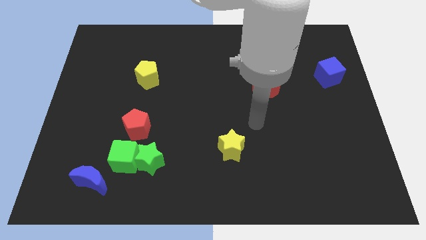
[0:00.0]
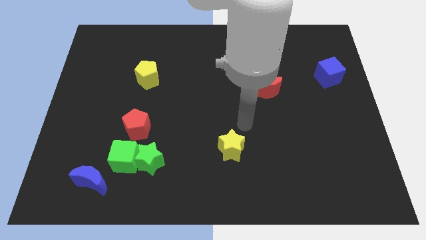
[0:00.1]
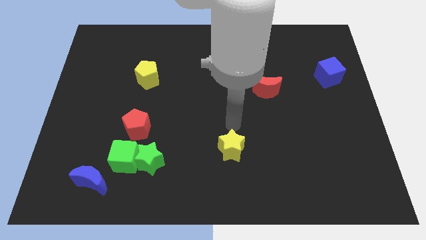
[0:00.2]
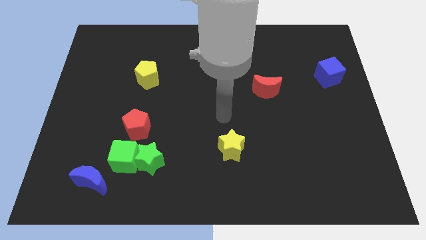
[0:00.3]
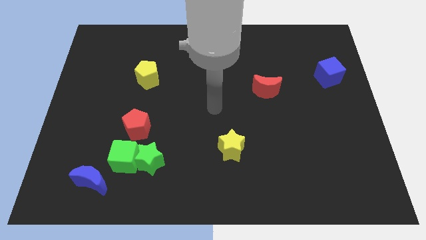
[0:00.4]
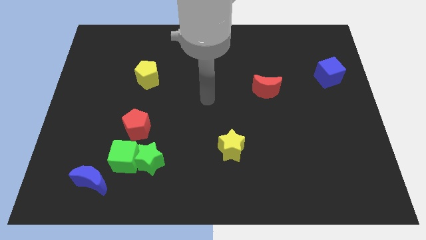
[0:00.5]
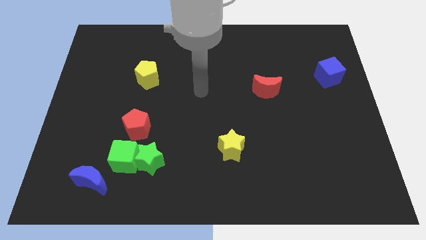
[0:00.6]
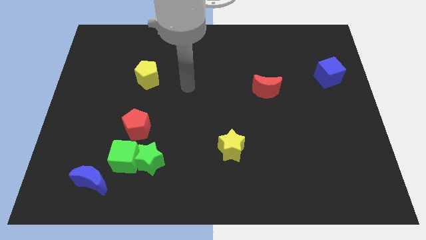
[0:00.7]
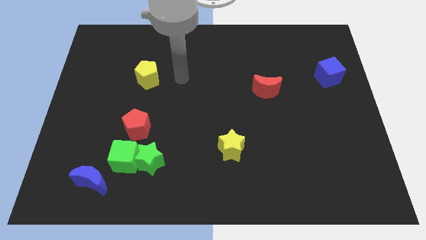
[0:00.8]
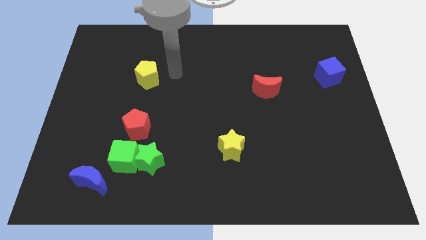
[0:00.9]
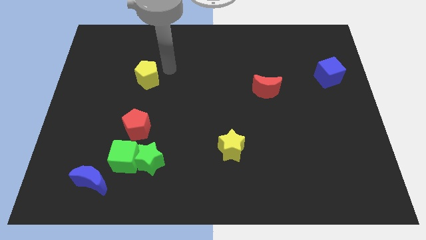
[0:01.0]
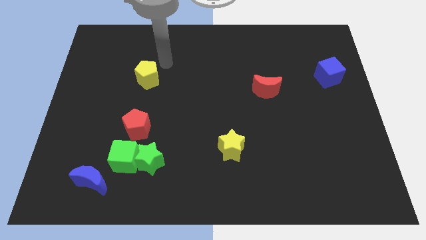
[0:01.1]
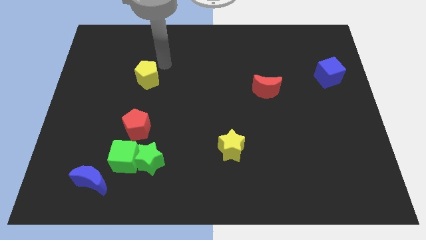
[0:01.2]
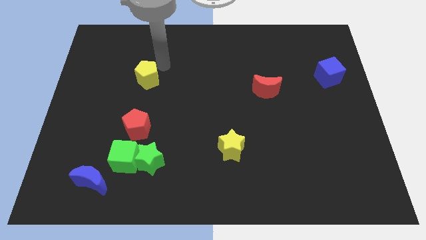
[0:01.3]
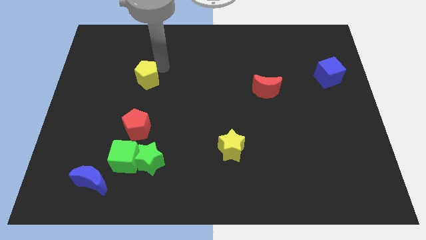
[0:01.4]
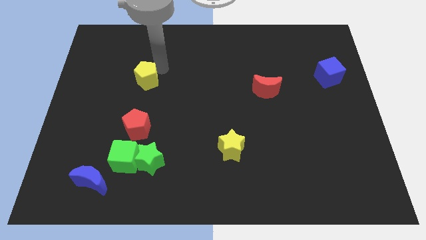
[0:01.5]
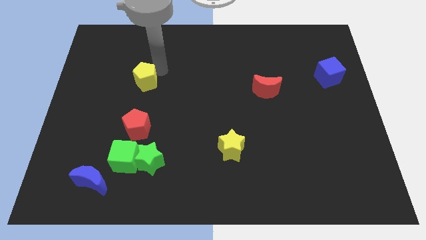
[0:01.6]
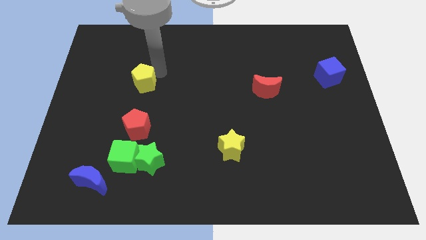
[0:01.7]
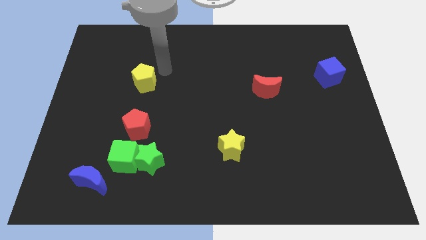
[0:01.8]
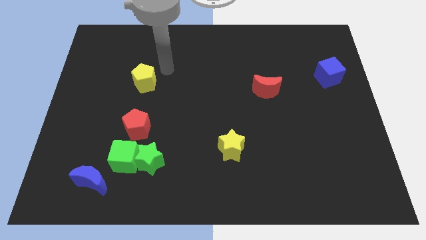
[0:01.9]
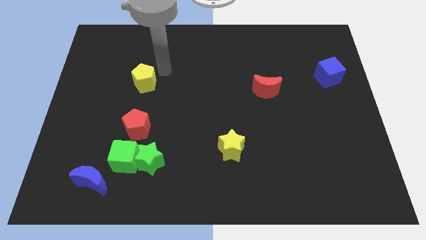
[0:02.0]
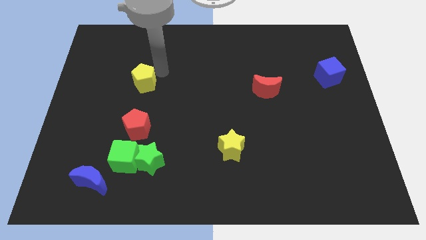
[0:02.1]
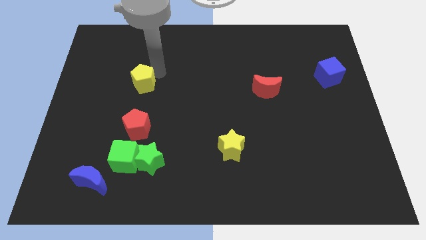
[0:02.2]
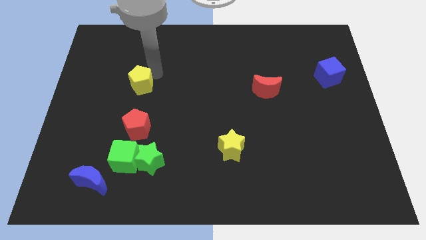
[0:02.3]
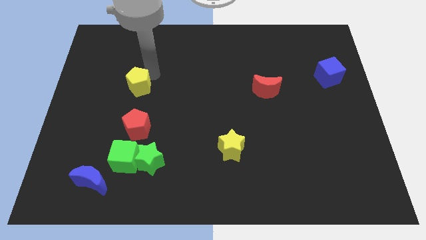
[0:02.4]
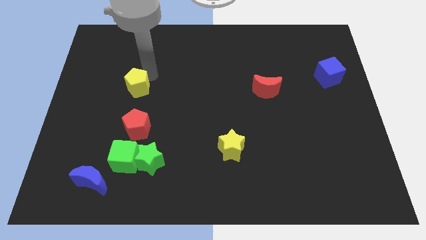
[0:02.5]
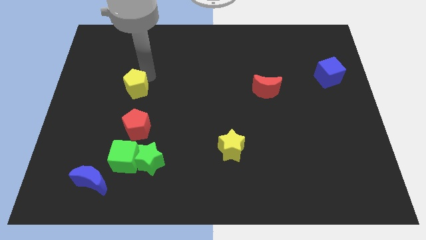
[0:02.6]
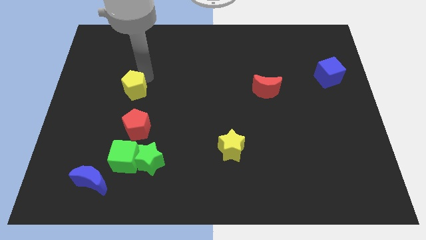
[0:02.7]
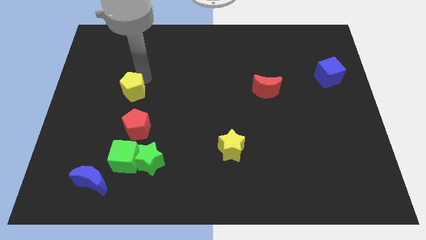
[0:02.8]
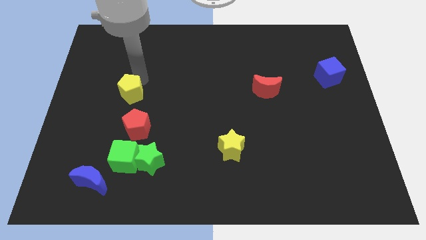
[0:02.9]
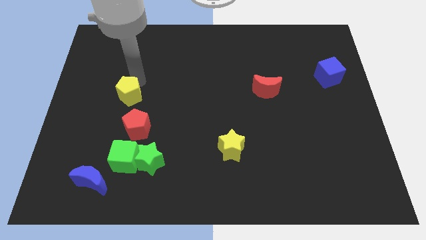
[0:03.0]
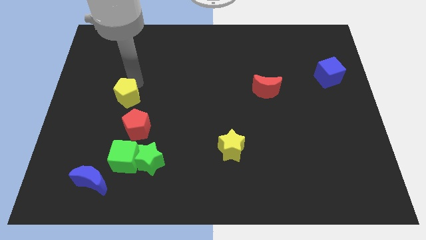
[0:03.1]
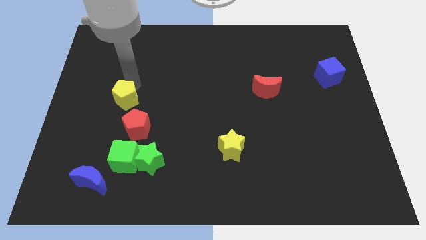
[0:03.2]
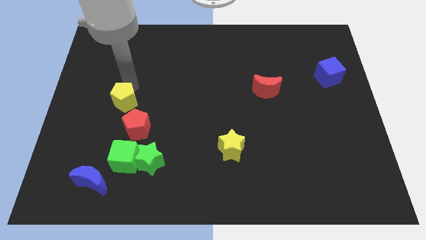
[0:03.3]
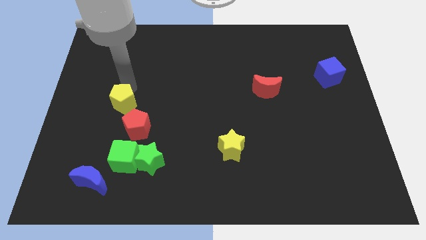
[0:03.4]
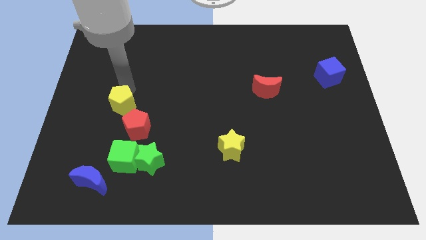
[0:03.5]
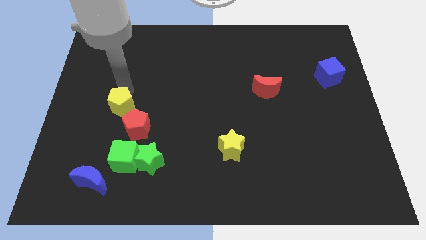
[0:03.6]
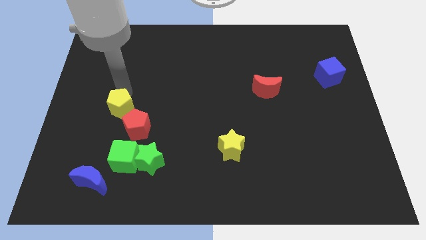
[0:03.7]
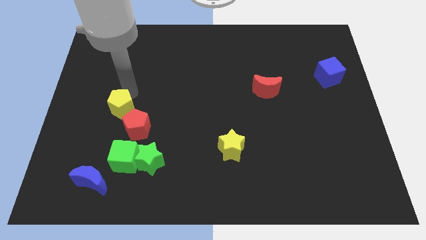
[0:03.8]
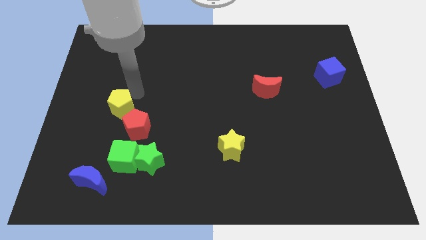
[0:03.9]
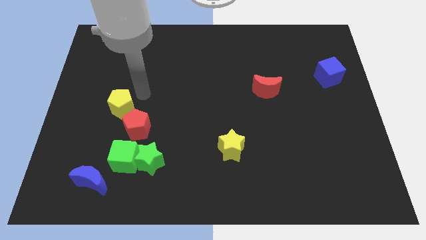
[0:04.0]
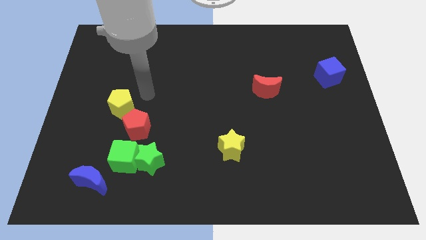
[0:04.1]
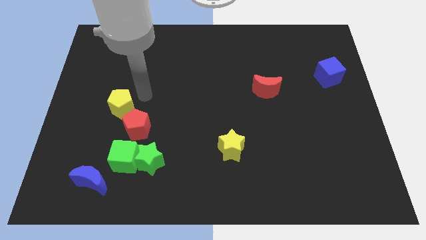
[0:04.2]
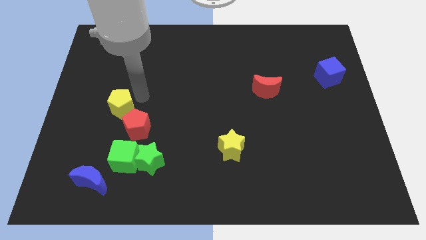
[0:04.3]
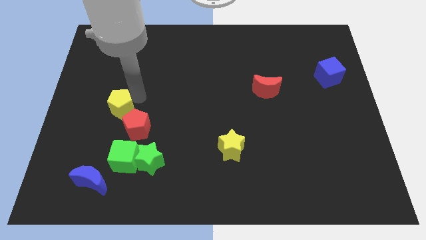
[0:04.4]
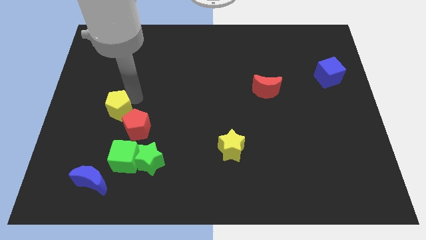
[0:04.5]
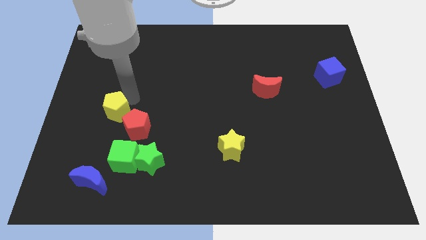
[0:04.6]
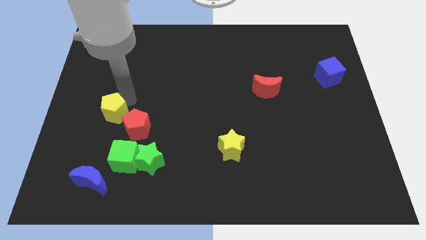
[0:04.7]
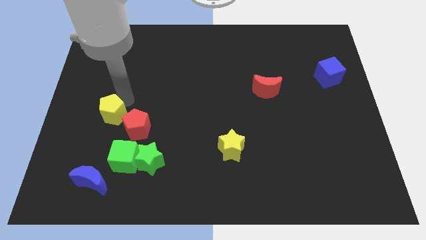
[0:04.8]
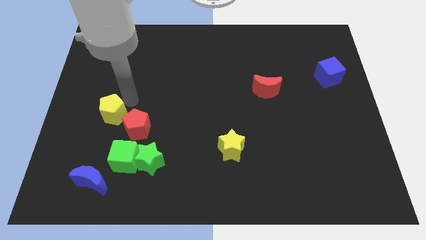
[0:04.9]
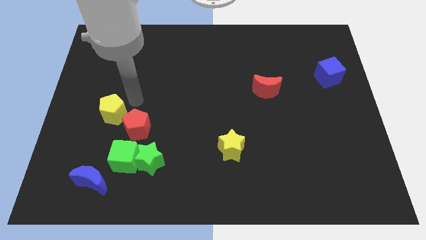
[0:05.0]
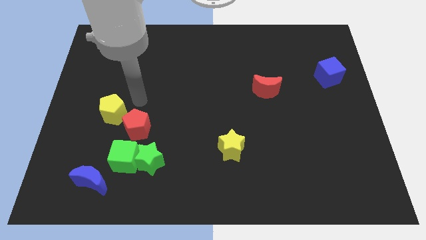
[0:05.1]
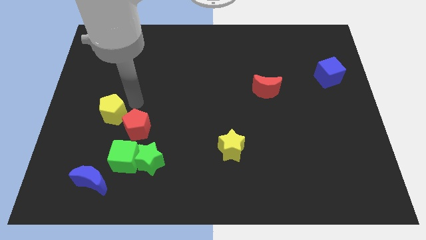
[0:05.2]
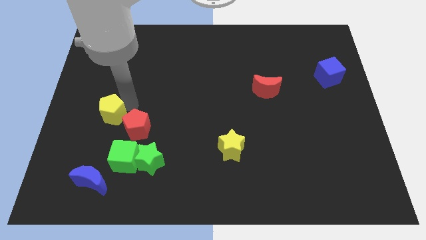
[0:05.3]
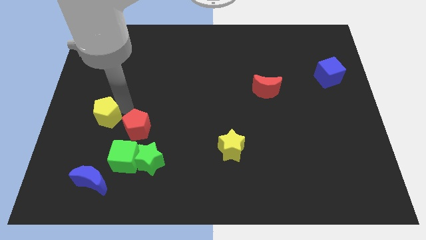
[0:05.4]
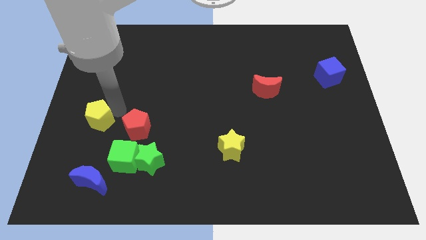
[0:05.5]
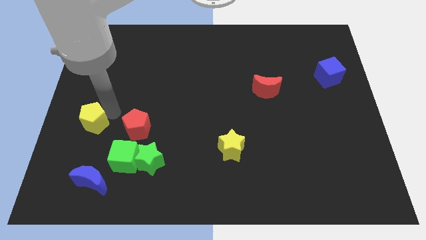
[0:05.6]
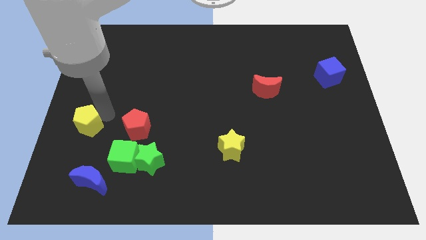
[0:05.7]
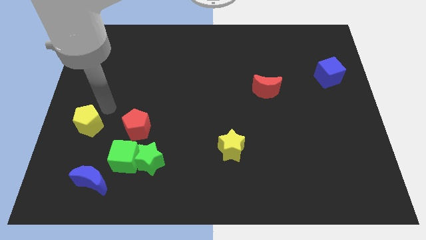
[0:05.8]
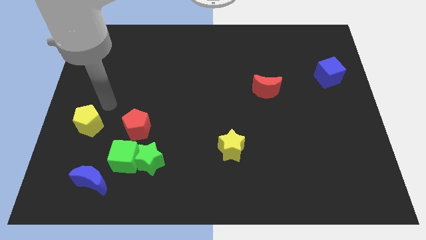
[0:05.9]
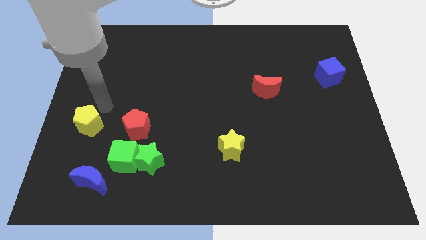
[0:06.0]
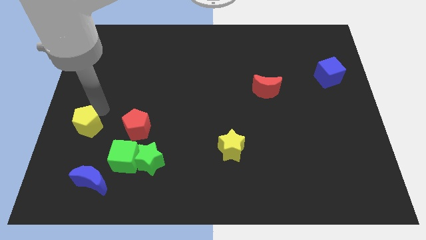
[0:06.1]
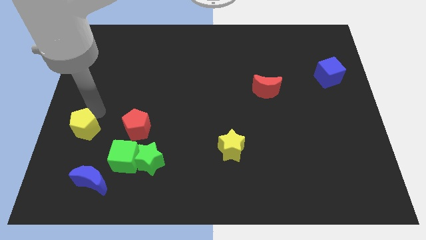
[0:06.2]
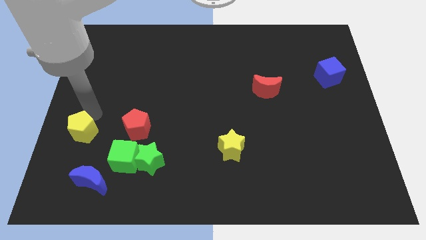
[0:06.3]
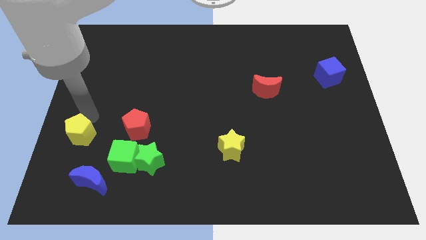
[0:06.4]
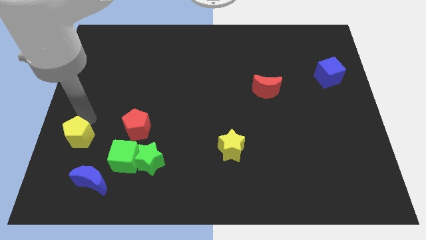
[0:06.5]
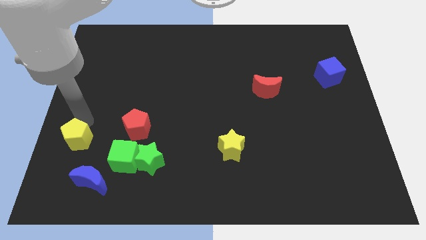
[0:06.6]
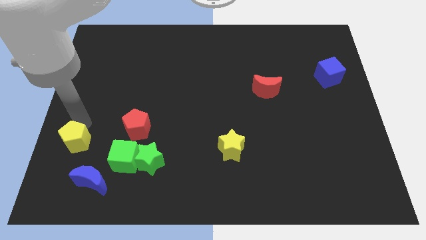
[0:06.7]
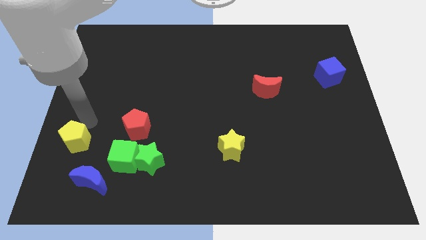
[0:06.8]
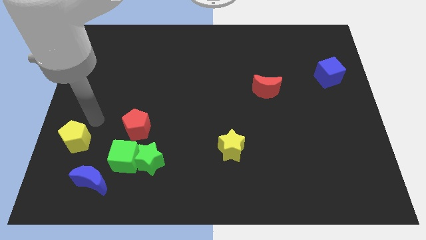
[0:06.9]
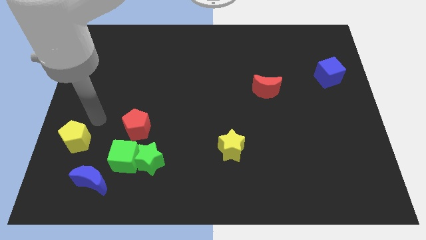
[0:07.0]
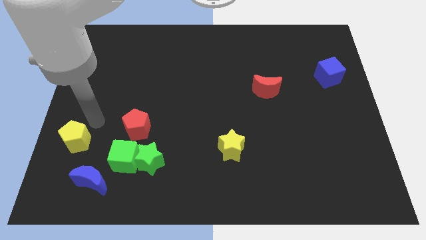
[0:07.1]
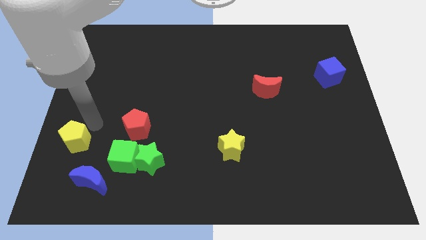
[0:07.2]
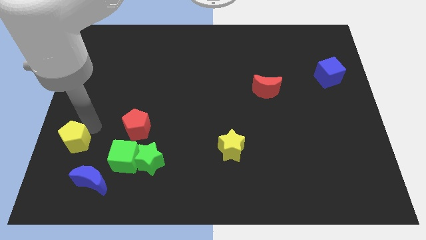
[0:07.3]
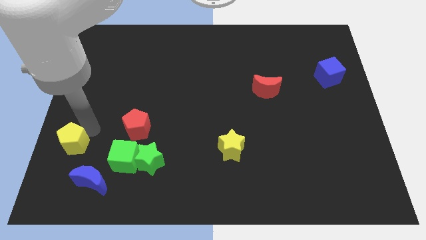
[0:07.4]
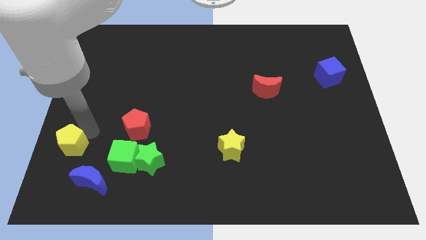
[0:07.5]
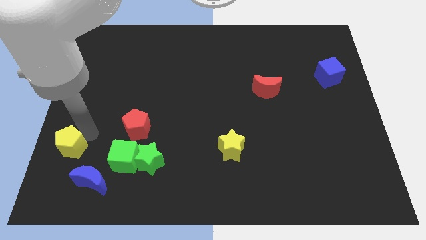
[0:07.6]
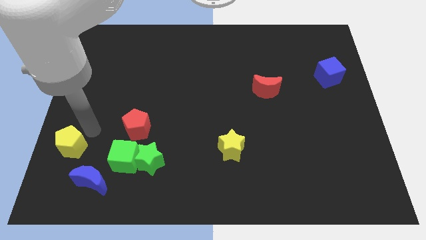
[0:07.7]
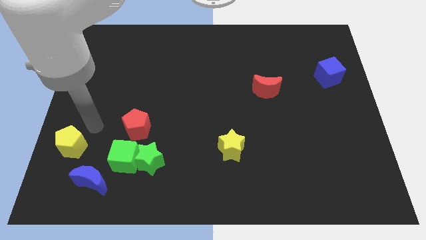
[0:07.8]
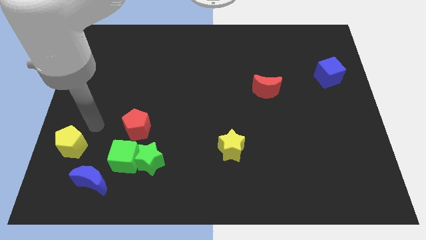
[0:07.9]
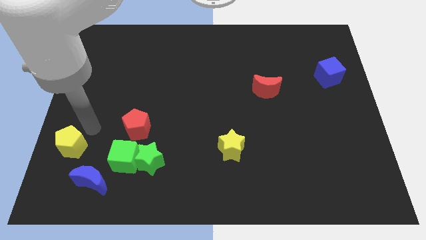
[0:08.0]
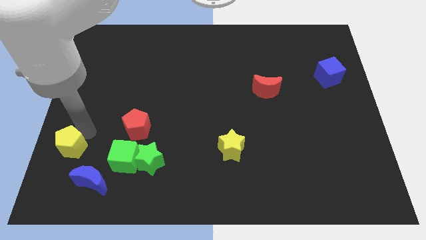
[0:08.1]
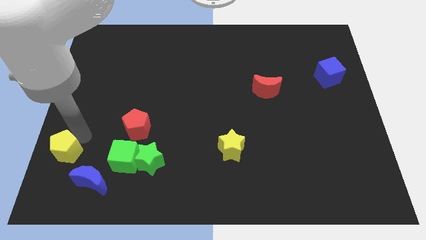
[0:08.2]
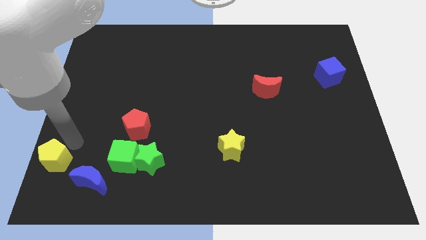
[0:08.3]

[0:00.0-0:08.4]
push the yellow pentagon to the bottom left of the board
